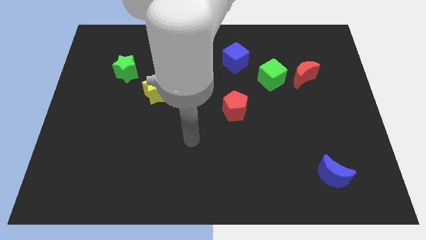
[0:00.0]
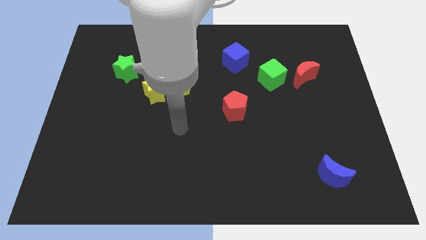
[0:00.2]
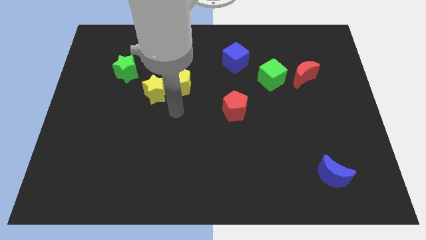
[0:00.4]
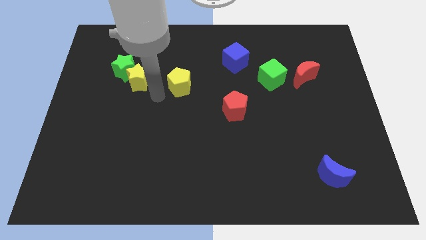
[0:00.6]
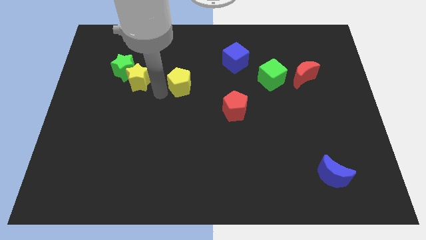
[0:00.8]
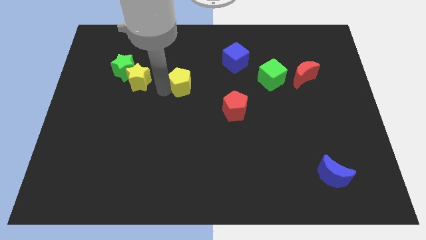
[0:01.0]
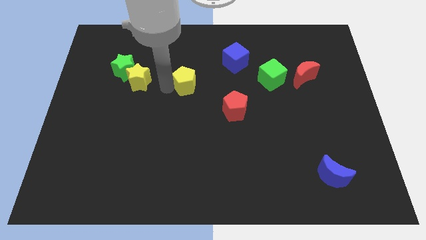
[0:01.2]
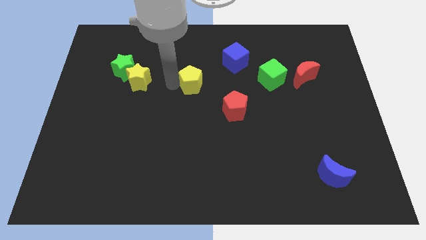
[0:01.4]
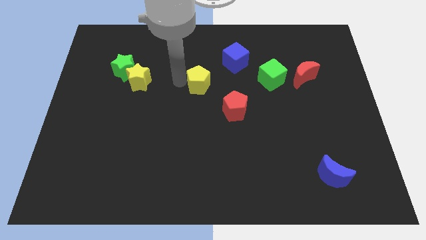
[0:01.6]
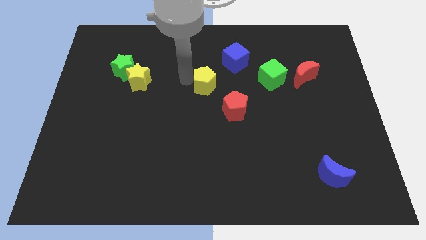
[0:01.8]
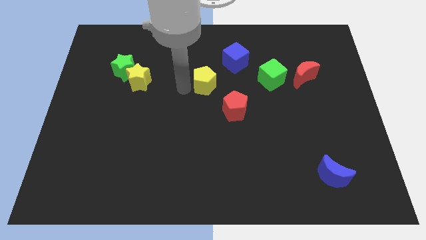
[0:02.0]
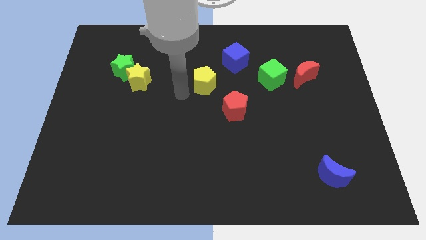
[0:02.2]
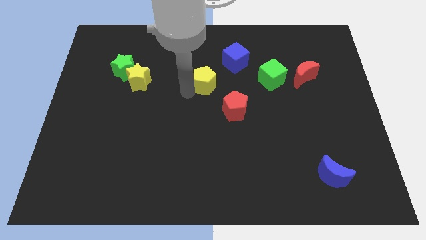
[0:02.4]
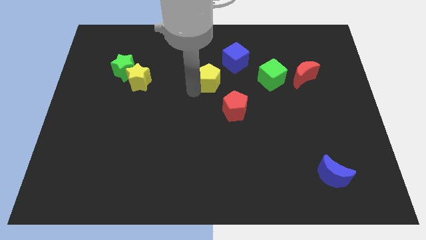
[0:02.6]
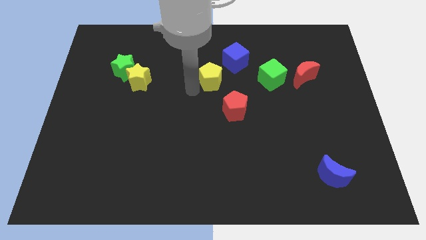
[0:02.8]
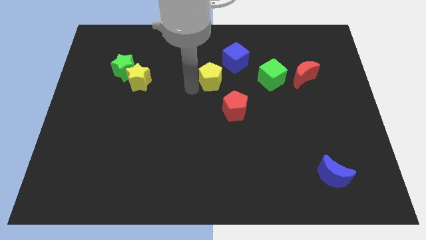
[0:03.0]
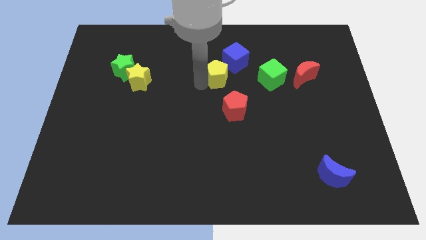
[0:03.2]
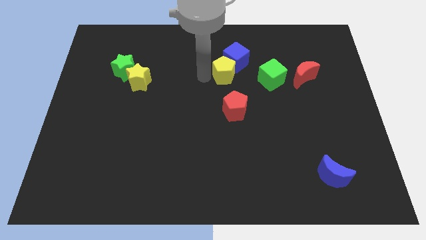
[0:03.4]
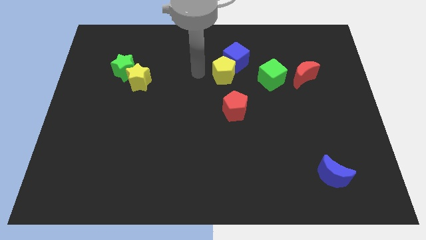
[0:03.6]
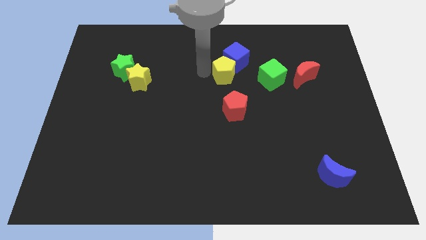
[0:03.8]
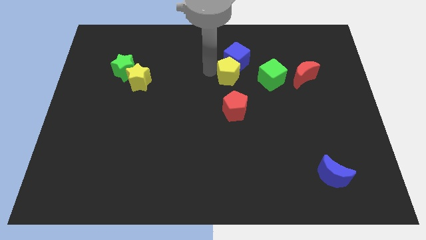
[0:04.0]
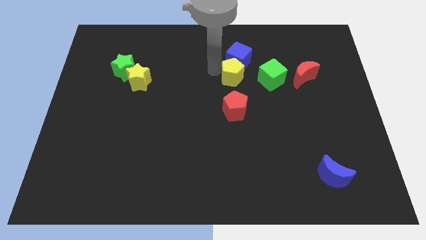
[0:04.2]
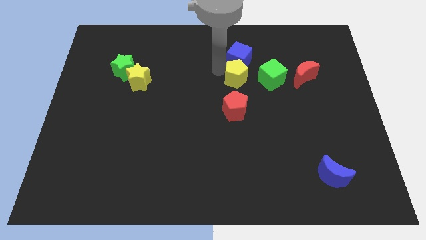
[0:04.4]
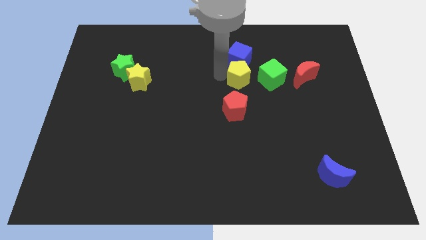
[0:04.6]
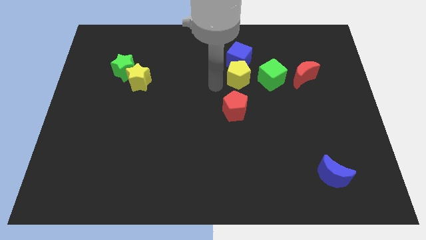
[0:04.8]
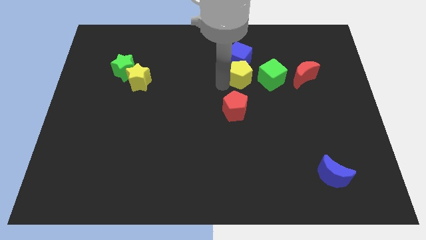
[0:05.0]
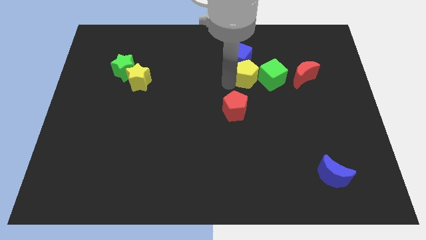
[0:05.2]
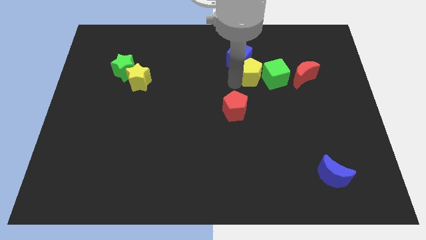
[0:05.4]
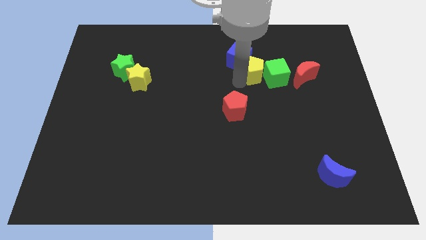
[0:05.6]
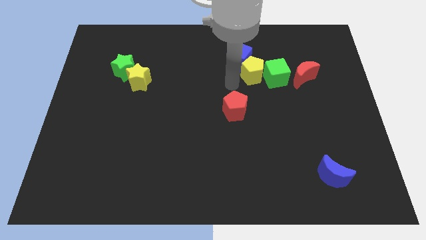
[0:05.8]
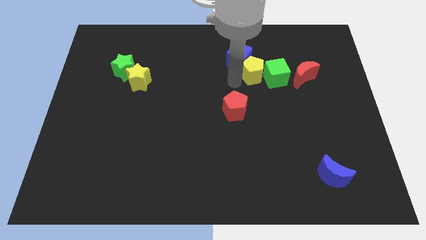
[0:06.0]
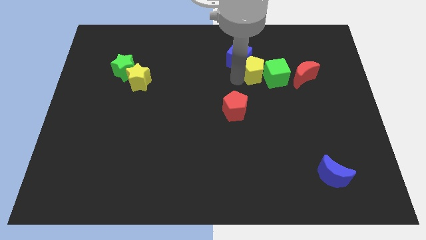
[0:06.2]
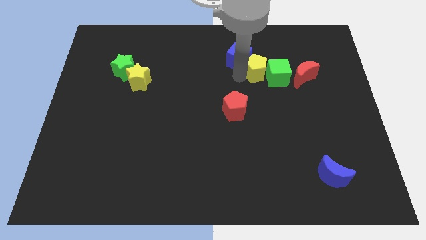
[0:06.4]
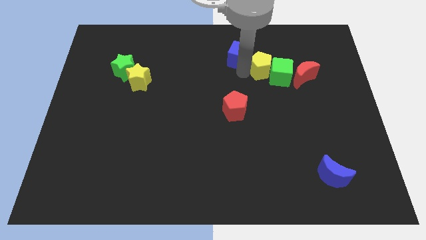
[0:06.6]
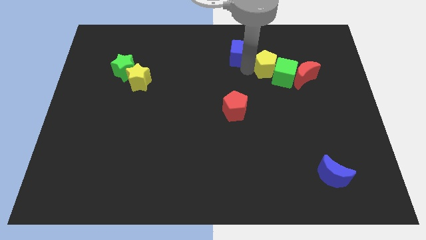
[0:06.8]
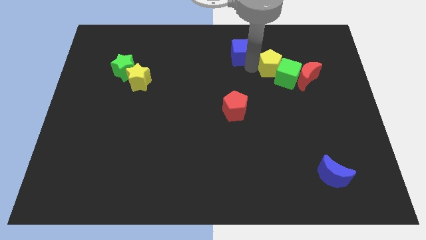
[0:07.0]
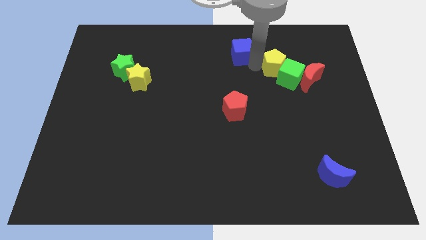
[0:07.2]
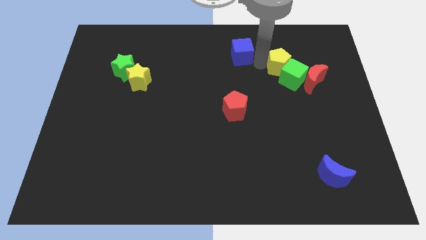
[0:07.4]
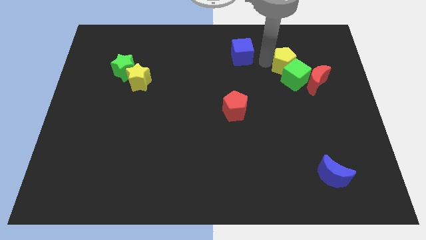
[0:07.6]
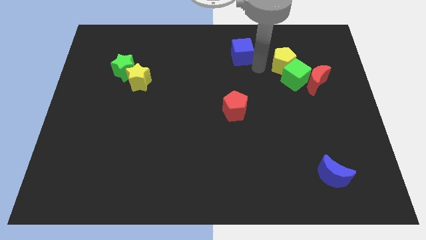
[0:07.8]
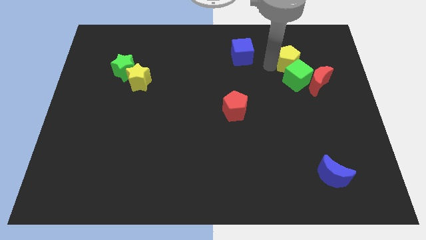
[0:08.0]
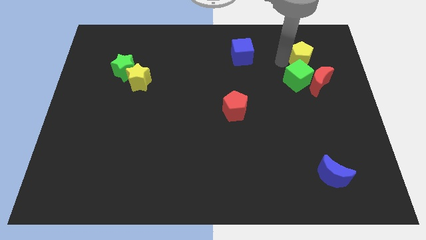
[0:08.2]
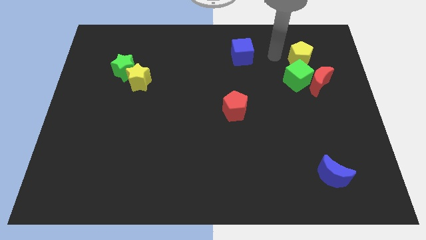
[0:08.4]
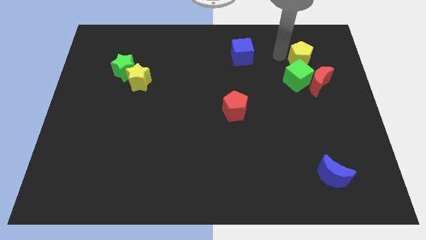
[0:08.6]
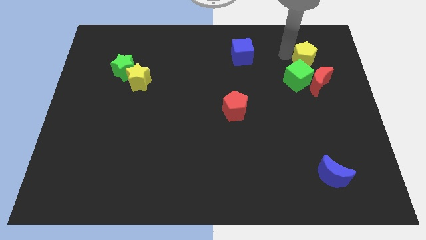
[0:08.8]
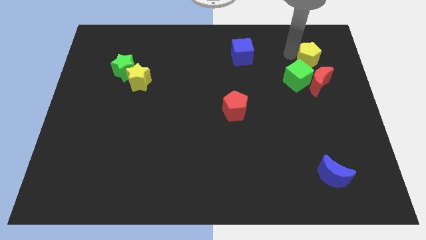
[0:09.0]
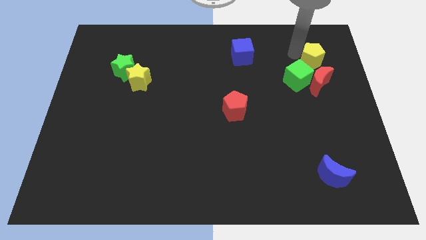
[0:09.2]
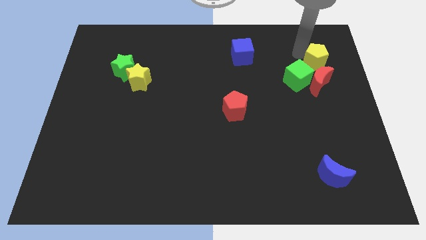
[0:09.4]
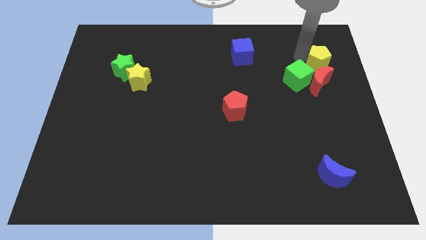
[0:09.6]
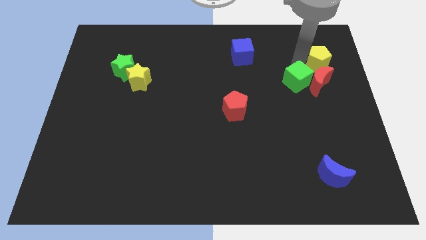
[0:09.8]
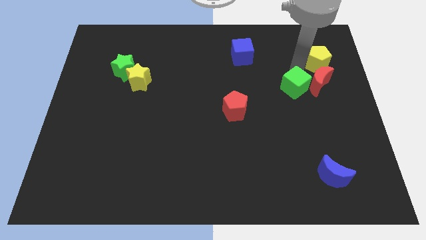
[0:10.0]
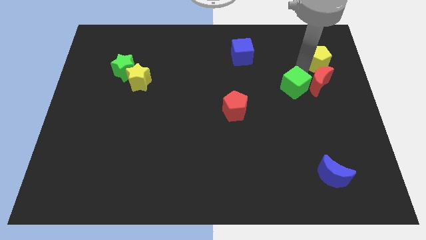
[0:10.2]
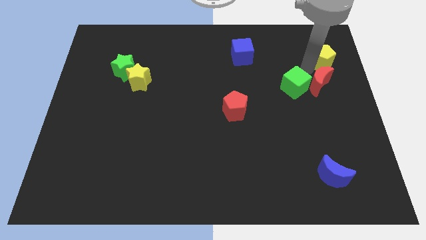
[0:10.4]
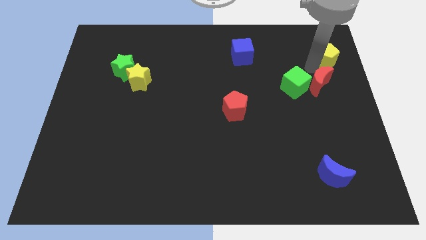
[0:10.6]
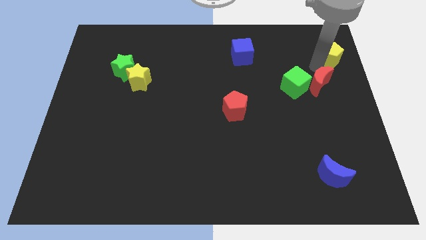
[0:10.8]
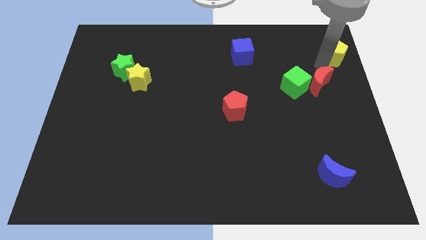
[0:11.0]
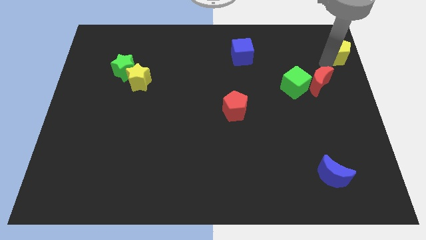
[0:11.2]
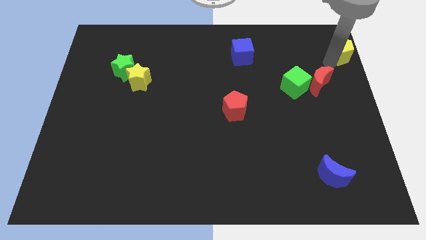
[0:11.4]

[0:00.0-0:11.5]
move the yellow pentagon to the upper right corner
